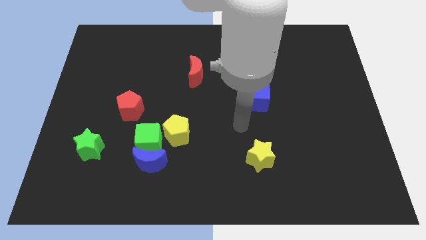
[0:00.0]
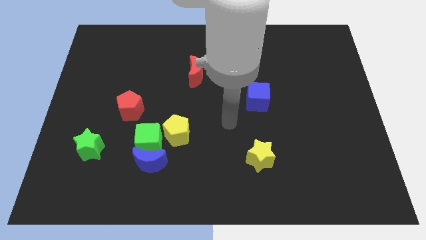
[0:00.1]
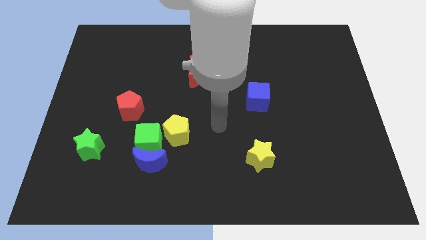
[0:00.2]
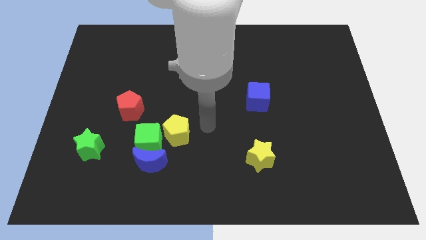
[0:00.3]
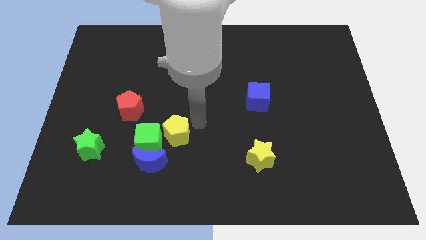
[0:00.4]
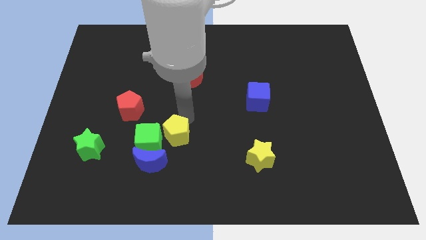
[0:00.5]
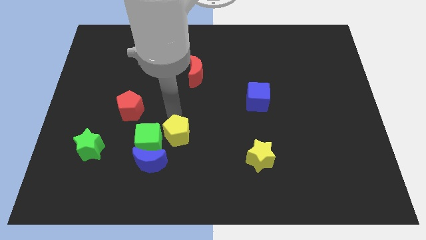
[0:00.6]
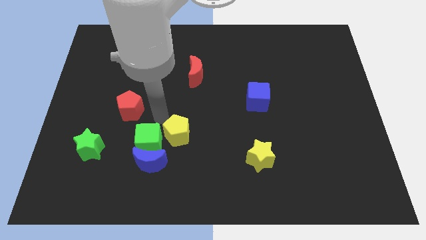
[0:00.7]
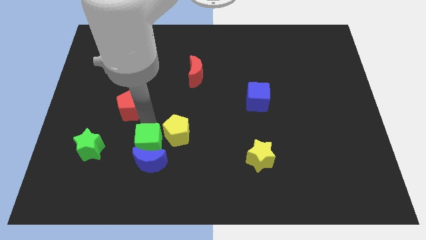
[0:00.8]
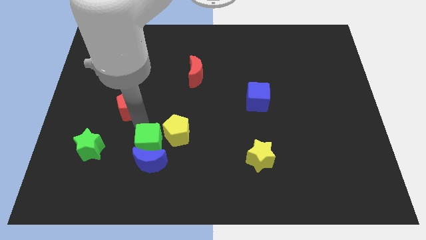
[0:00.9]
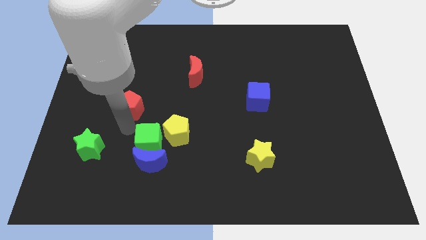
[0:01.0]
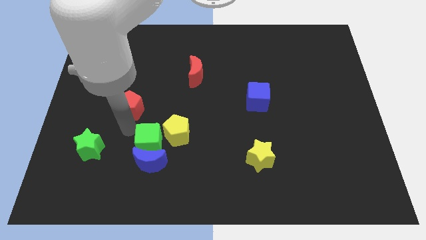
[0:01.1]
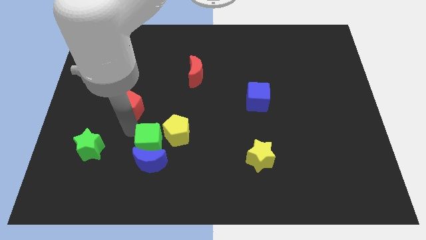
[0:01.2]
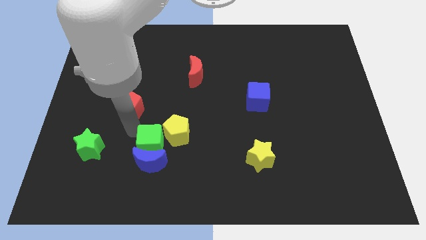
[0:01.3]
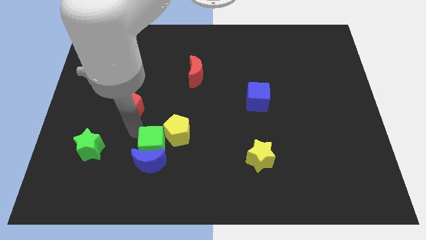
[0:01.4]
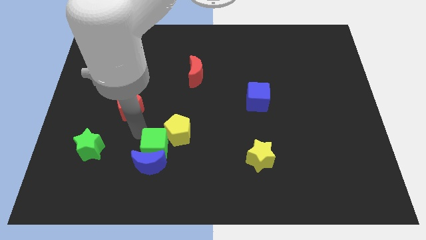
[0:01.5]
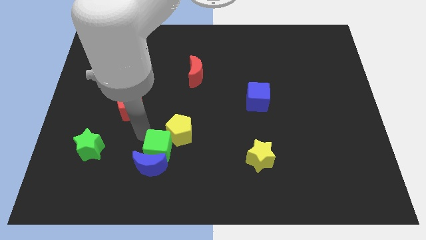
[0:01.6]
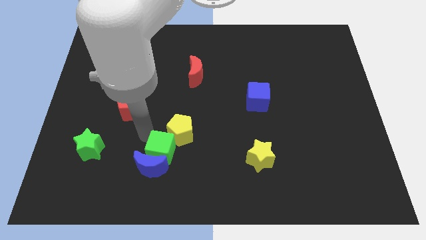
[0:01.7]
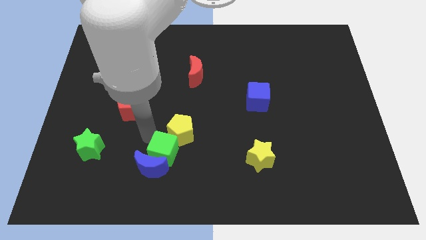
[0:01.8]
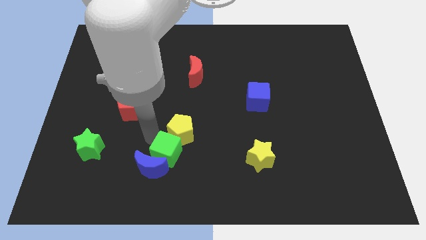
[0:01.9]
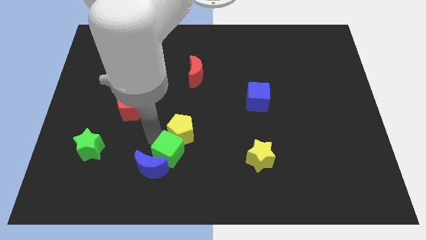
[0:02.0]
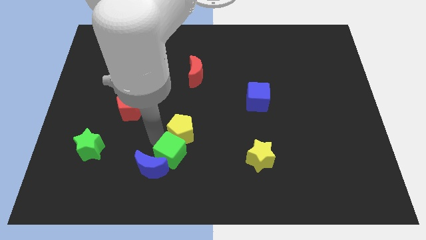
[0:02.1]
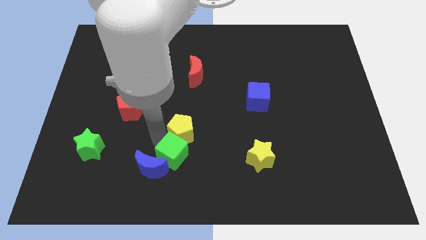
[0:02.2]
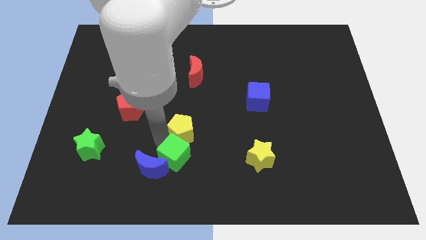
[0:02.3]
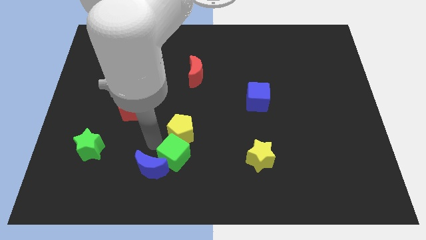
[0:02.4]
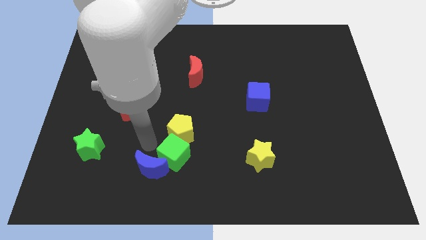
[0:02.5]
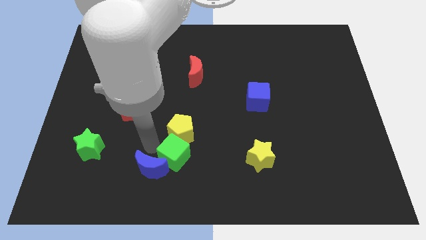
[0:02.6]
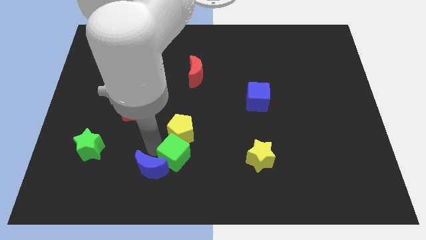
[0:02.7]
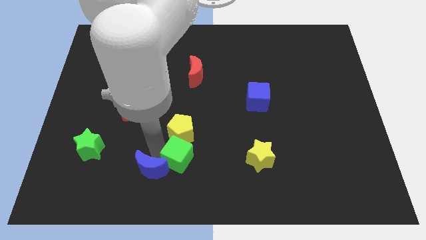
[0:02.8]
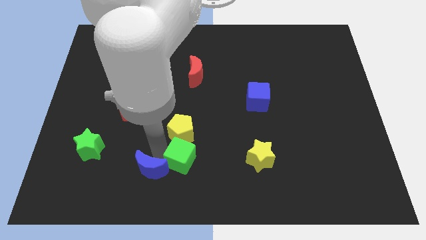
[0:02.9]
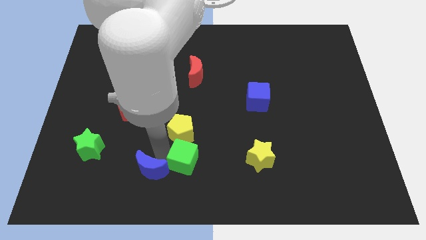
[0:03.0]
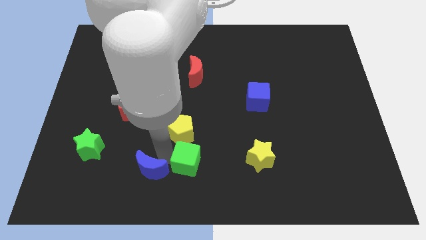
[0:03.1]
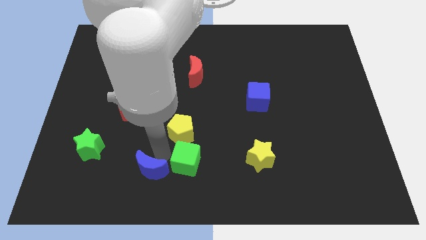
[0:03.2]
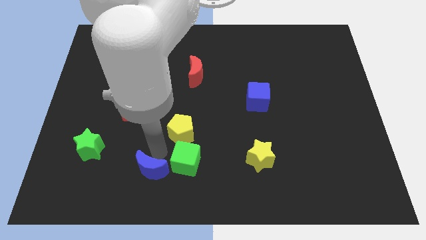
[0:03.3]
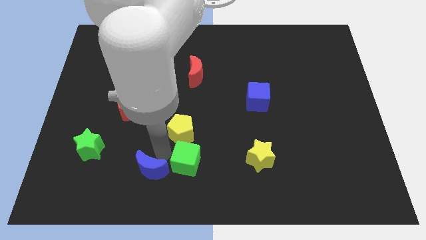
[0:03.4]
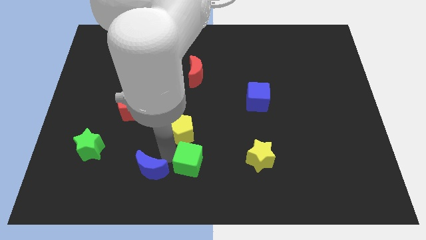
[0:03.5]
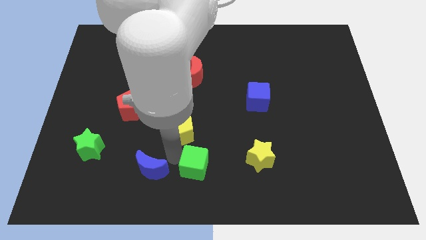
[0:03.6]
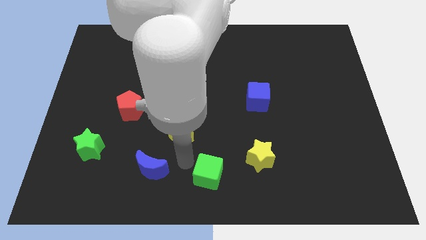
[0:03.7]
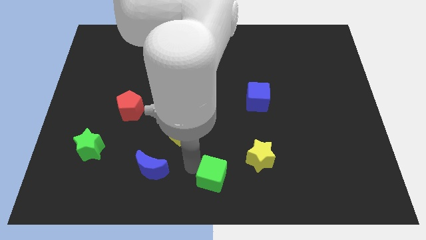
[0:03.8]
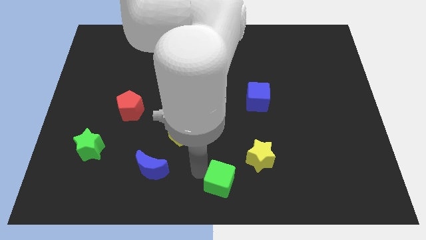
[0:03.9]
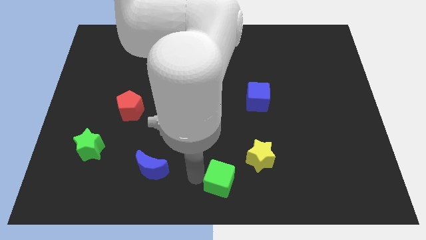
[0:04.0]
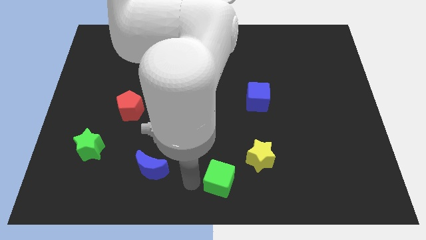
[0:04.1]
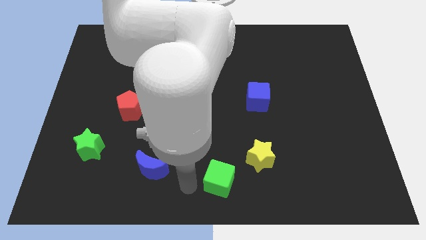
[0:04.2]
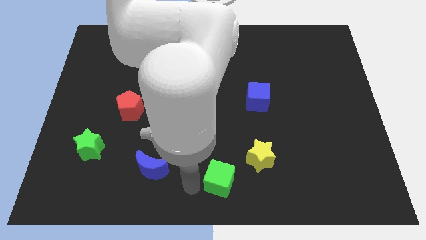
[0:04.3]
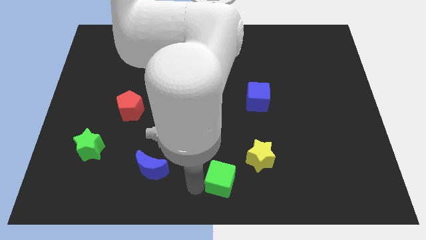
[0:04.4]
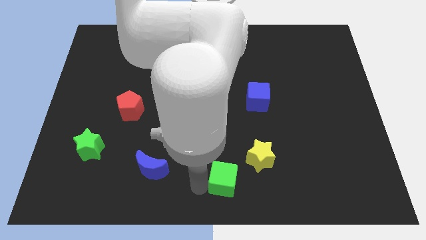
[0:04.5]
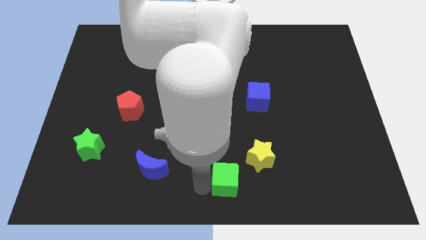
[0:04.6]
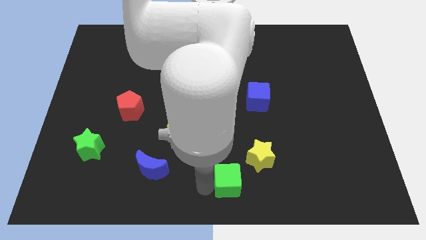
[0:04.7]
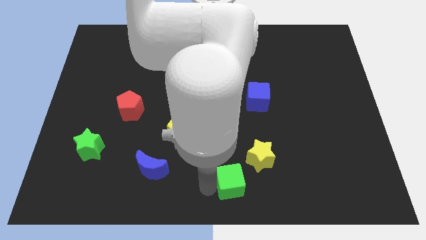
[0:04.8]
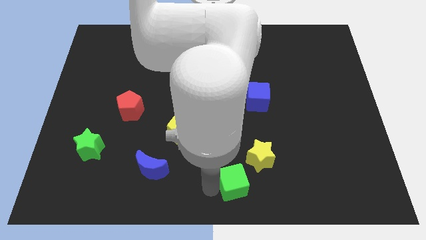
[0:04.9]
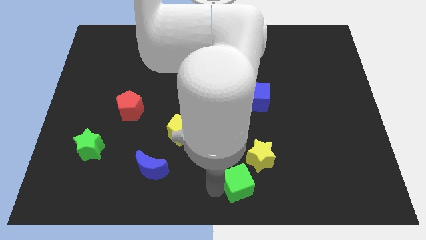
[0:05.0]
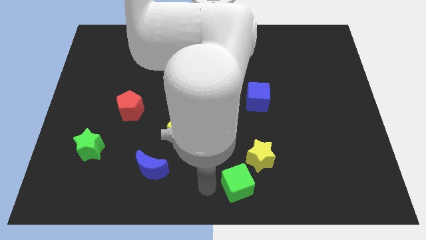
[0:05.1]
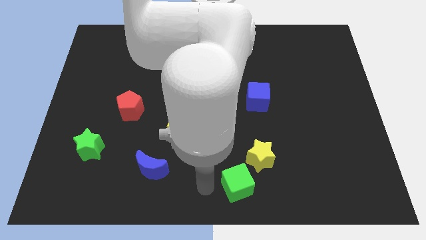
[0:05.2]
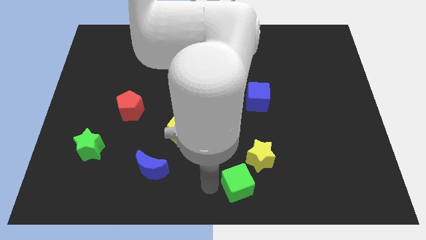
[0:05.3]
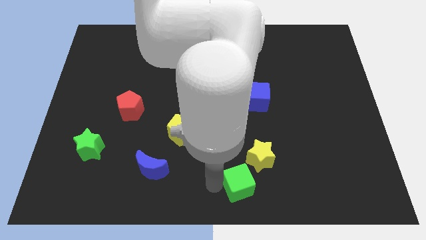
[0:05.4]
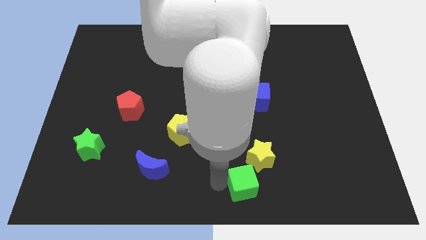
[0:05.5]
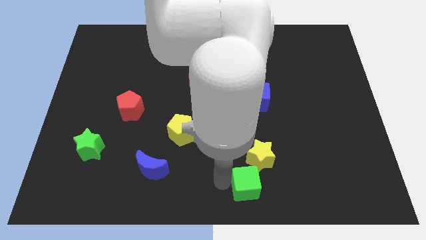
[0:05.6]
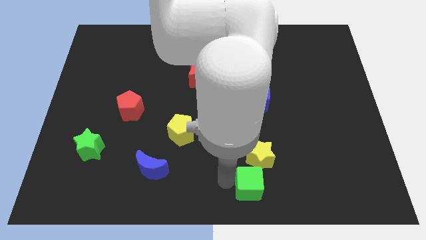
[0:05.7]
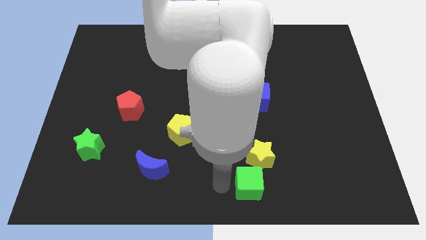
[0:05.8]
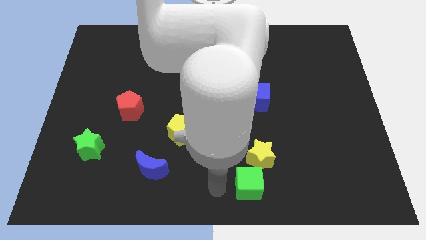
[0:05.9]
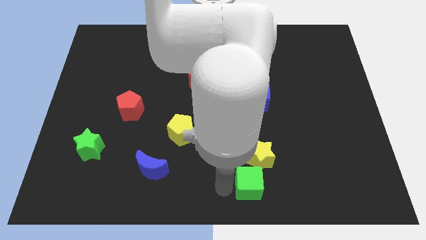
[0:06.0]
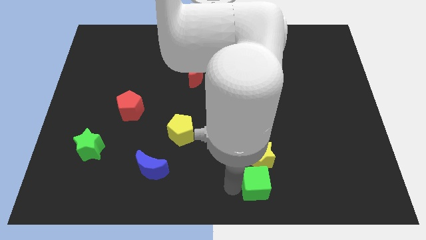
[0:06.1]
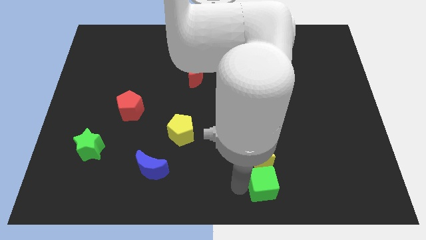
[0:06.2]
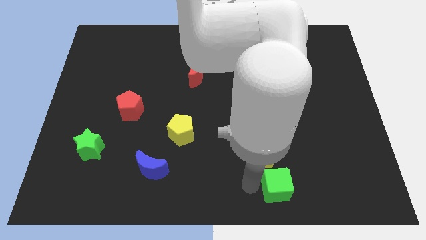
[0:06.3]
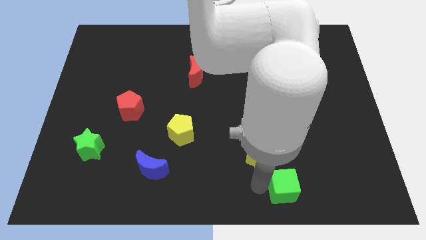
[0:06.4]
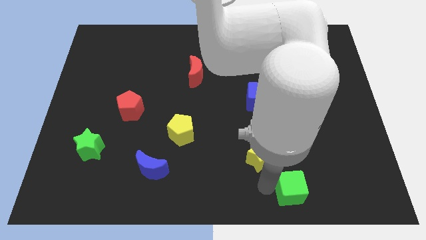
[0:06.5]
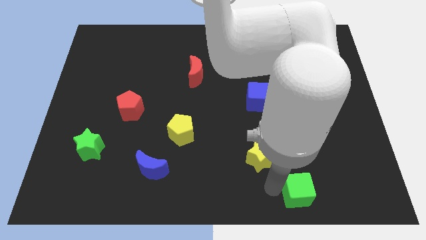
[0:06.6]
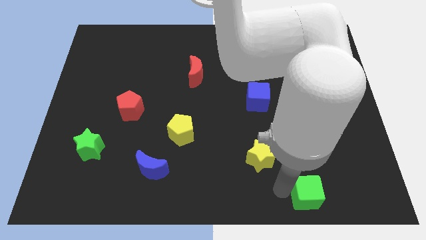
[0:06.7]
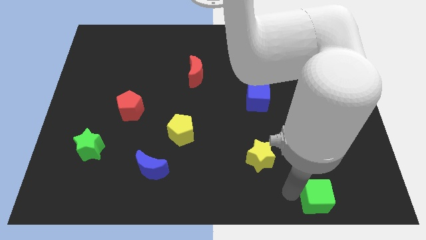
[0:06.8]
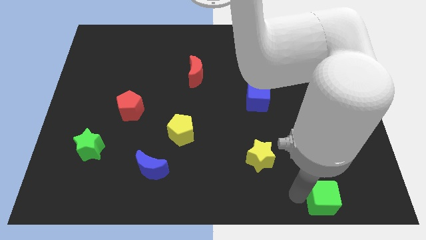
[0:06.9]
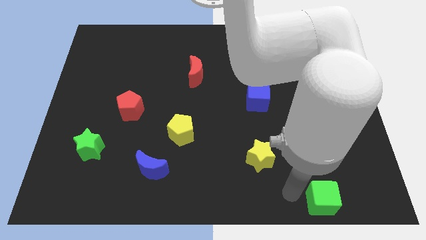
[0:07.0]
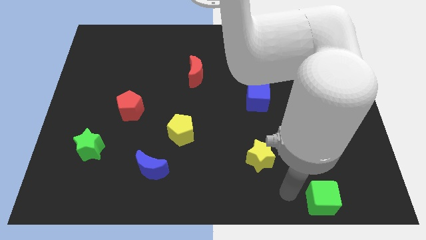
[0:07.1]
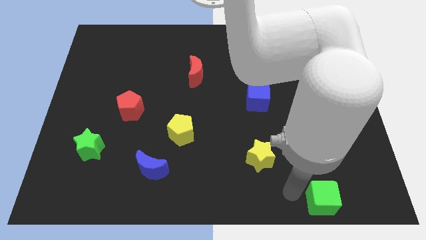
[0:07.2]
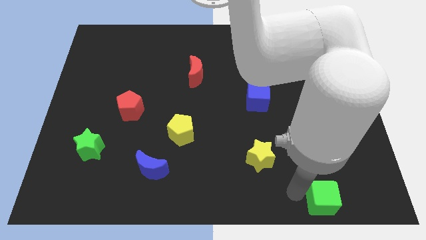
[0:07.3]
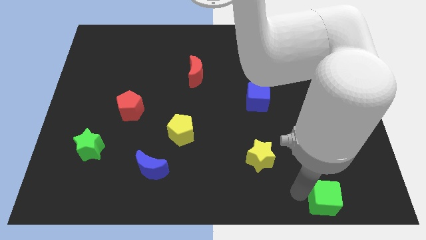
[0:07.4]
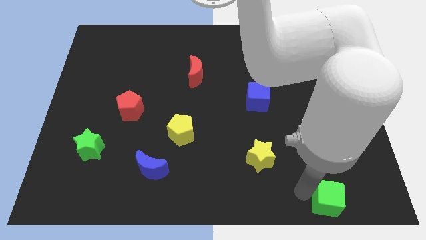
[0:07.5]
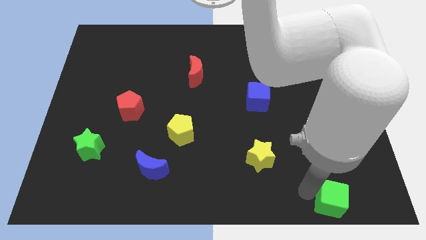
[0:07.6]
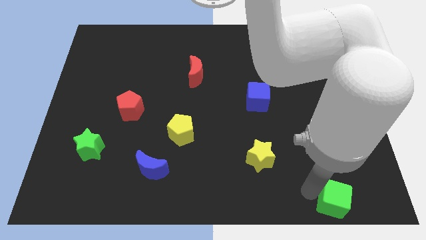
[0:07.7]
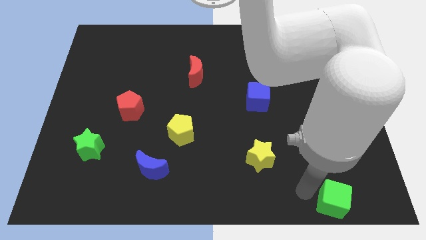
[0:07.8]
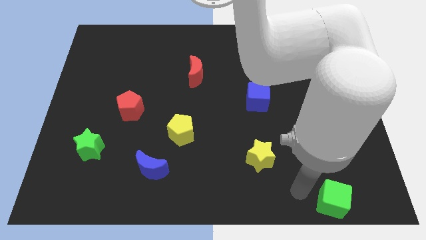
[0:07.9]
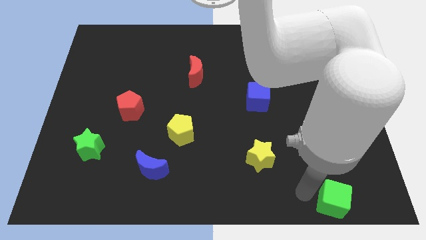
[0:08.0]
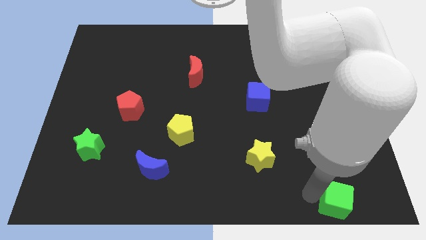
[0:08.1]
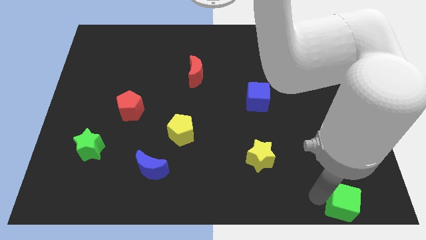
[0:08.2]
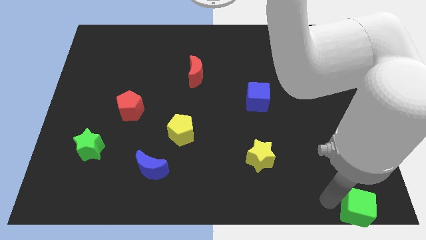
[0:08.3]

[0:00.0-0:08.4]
move the green cube to the bottom right of the board
